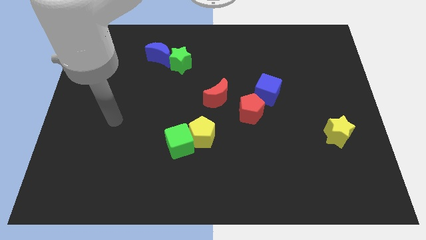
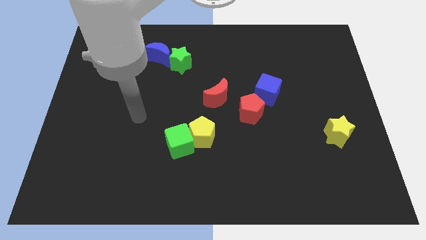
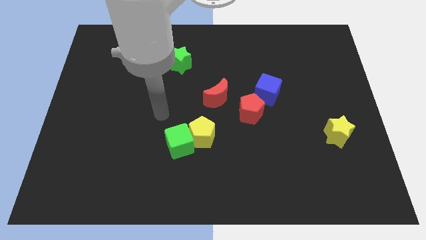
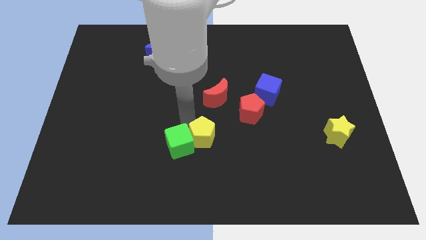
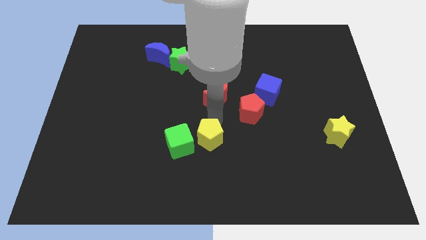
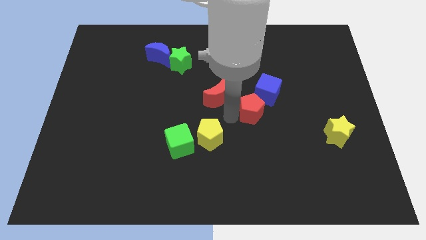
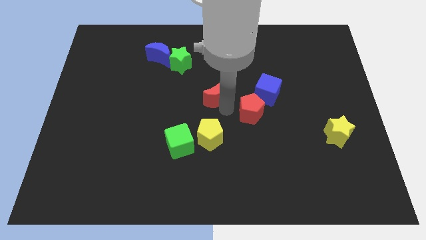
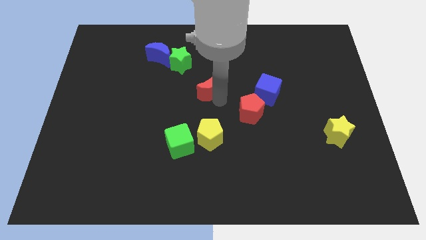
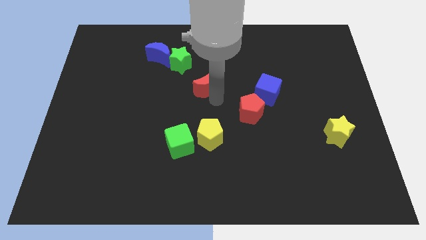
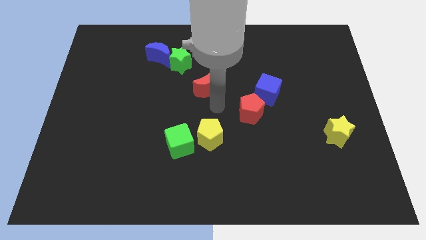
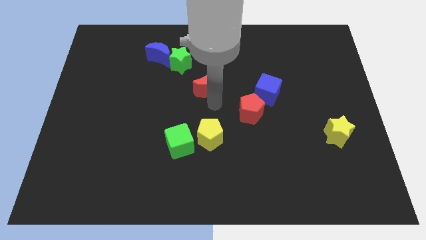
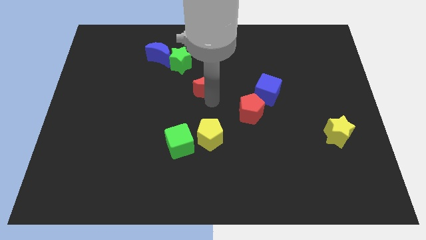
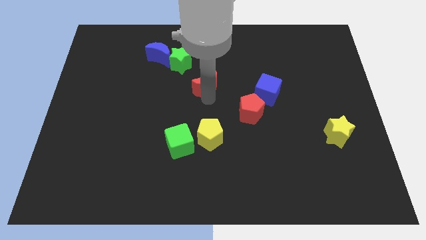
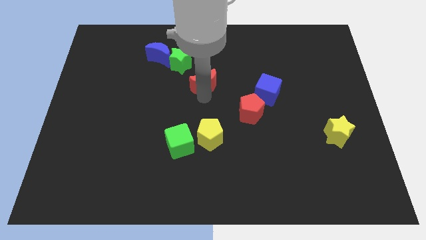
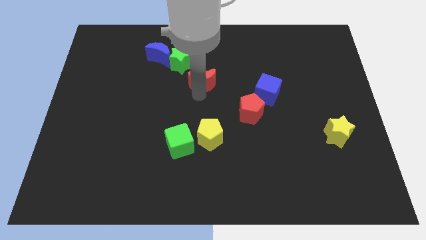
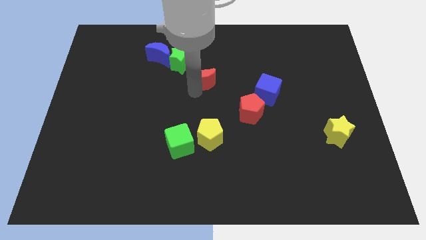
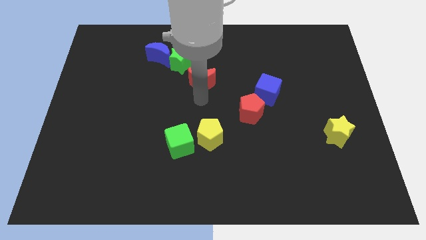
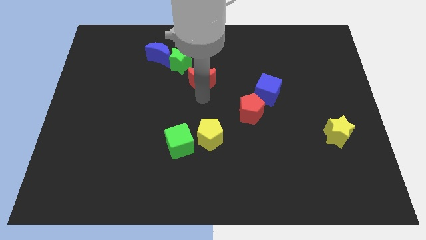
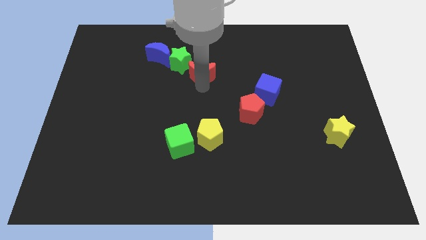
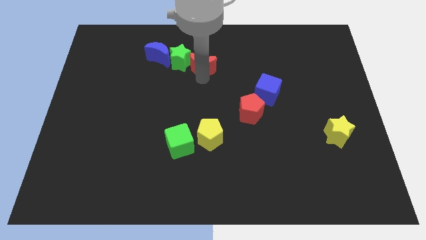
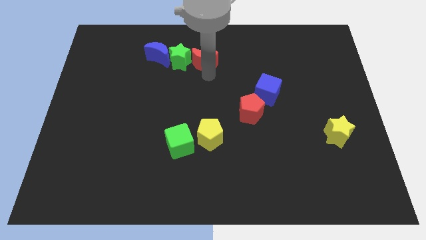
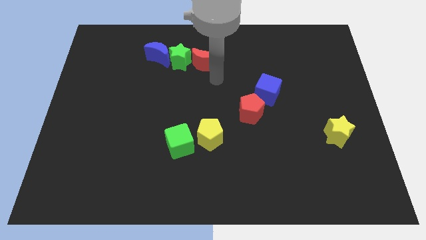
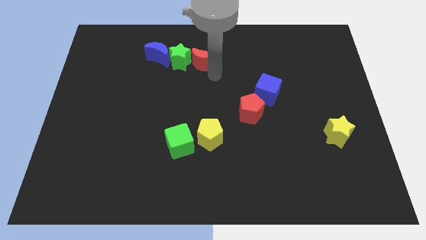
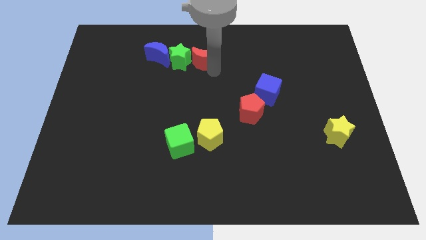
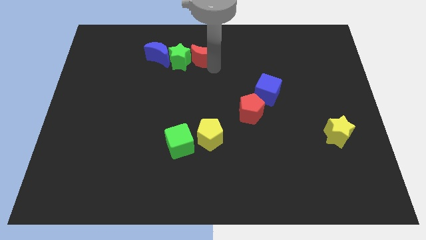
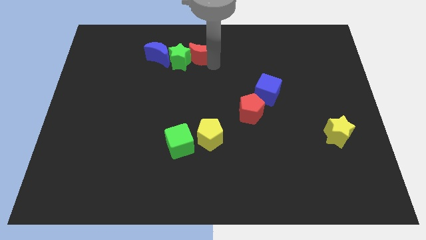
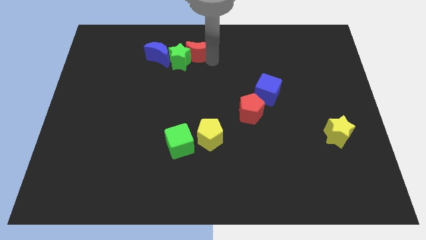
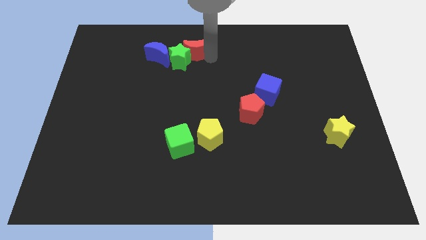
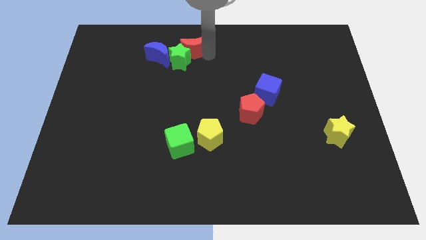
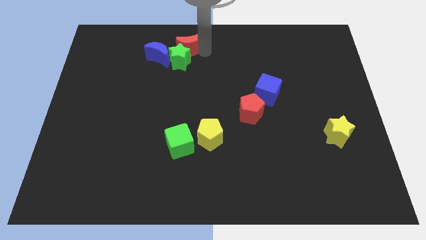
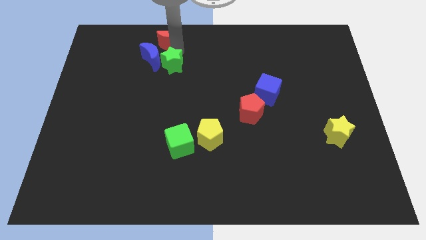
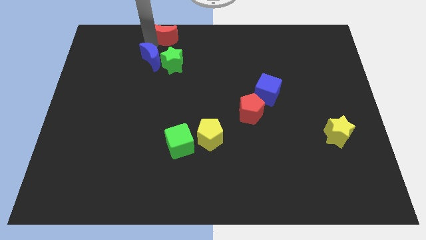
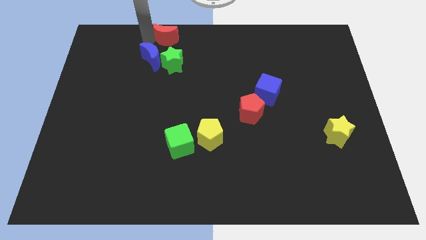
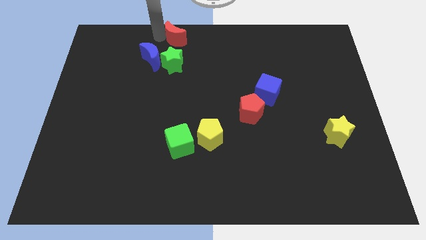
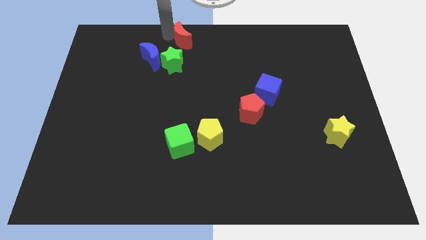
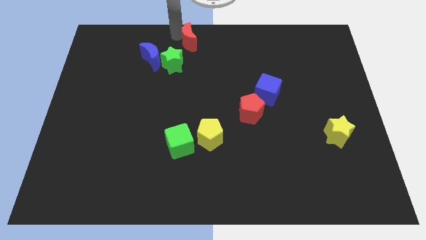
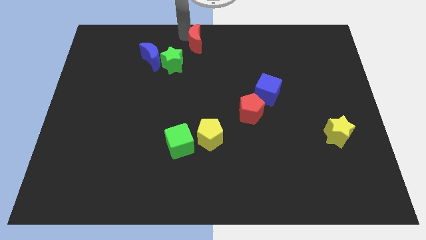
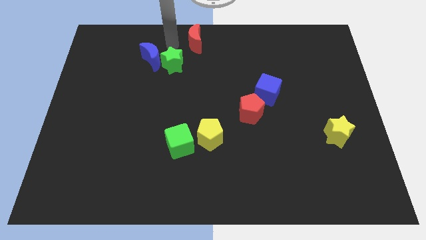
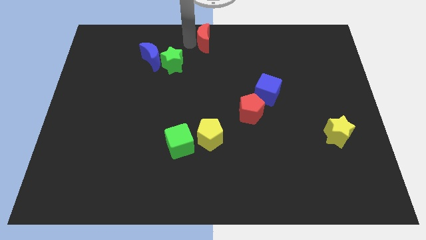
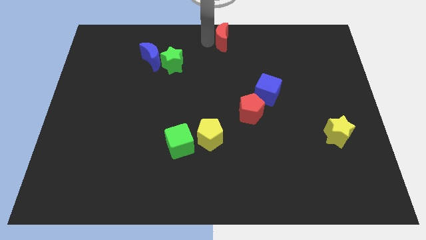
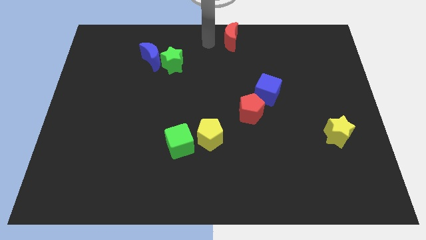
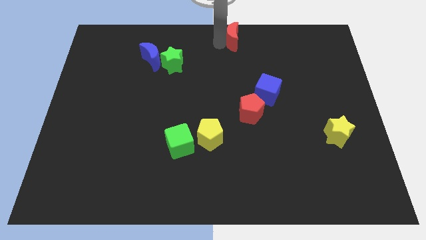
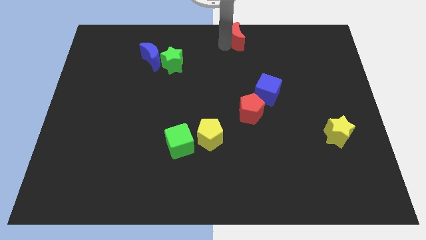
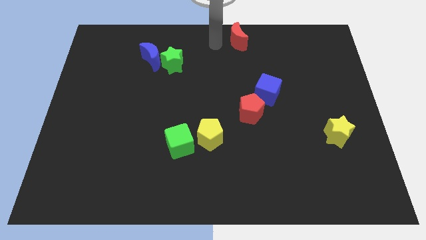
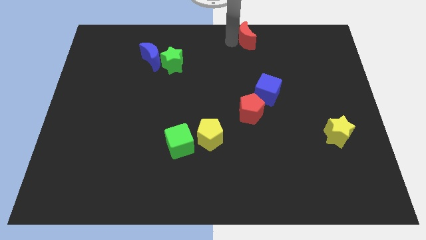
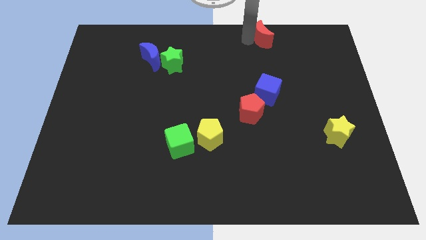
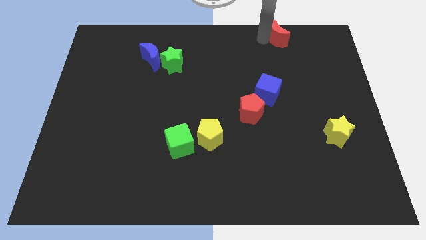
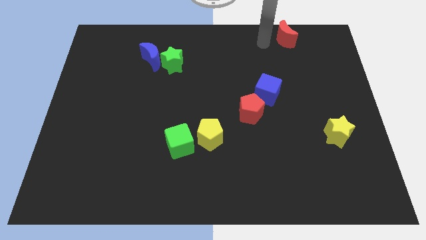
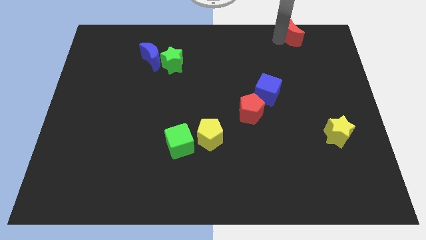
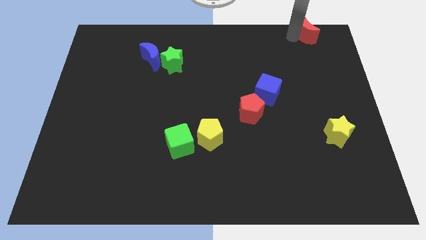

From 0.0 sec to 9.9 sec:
slide the red moon to the upper right corner

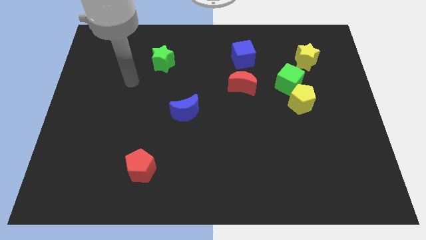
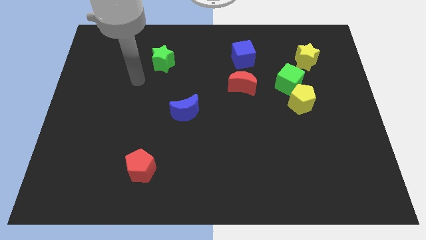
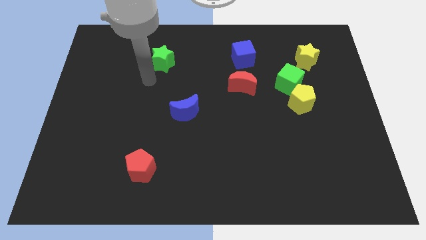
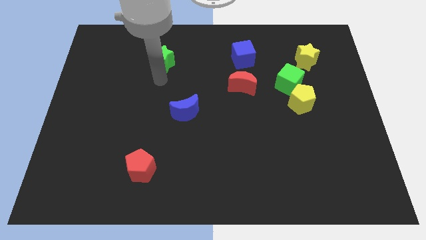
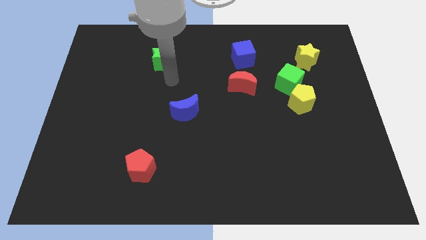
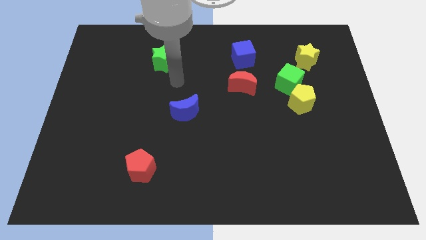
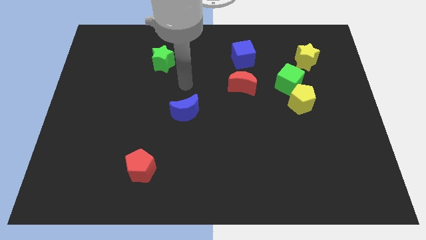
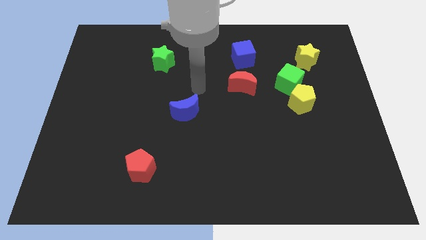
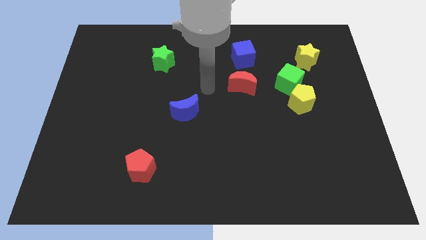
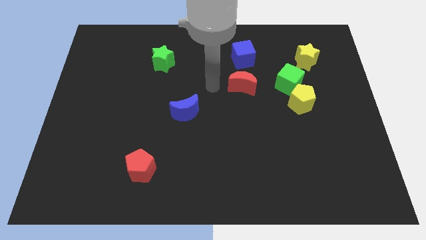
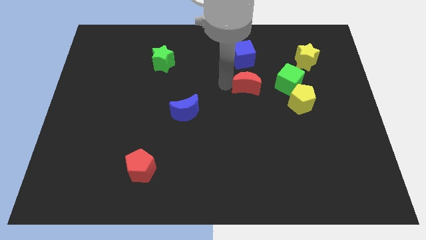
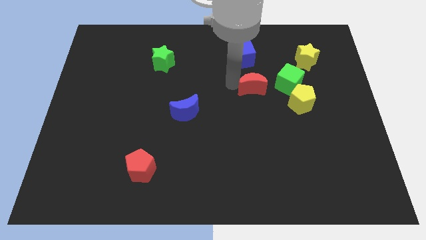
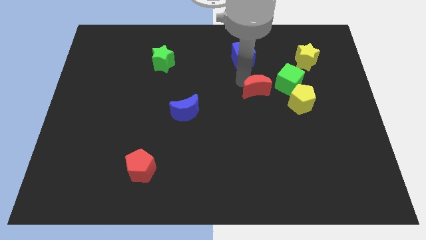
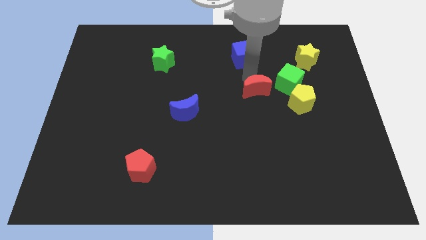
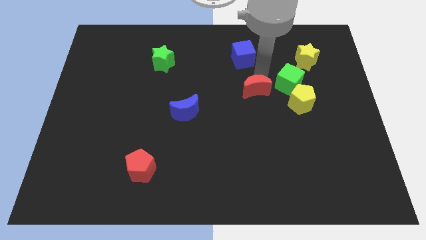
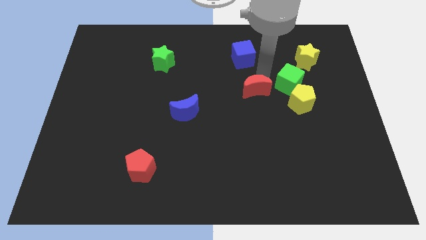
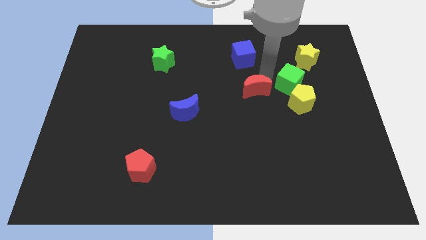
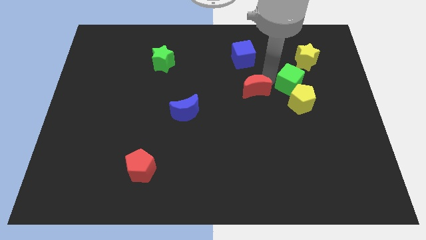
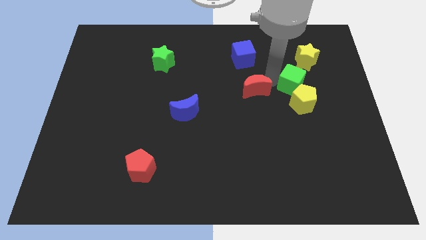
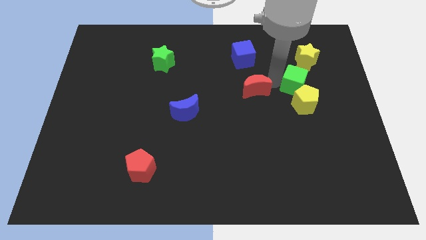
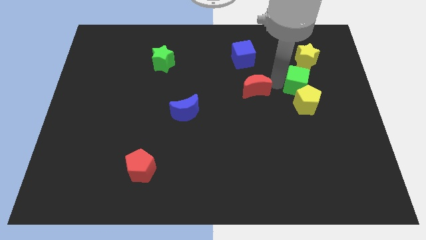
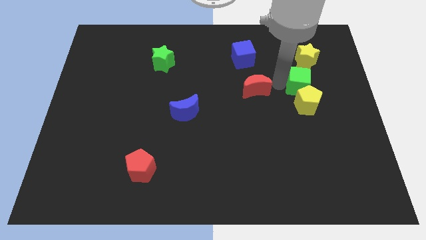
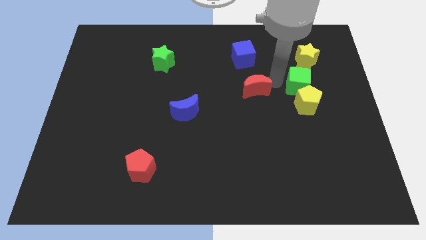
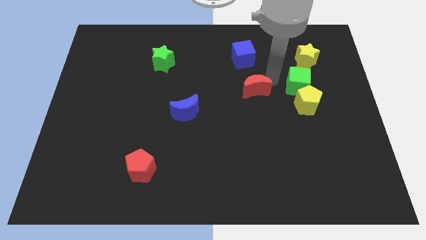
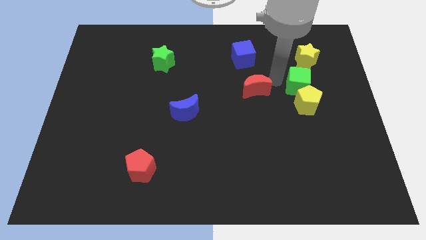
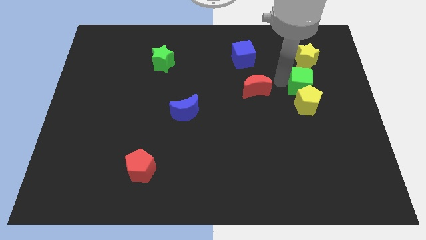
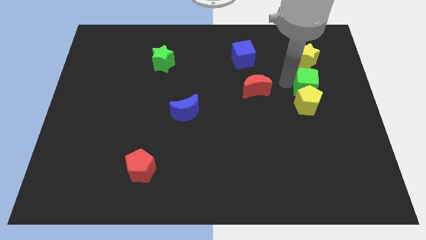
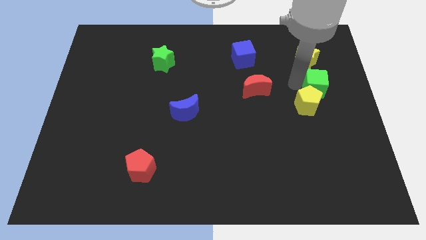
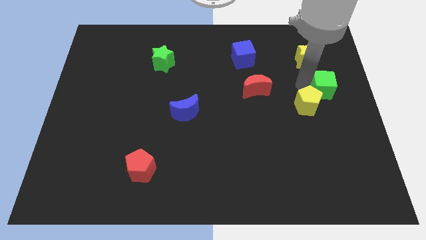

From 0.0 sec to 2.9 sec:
move the green cube to the right side of the board
